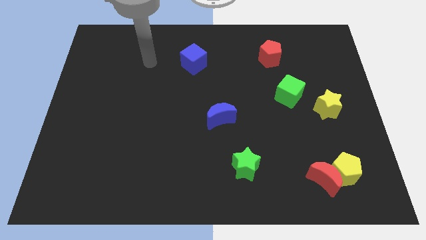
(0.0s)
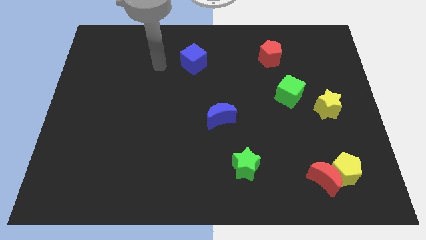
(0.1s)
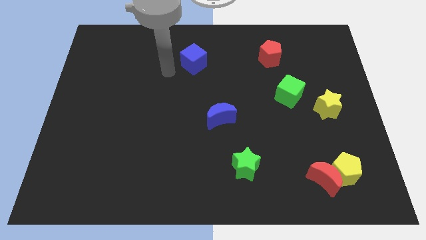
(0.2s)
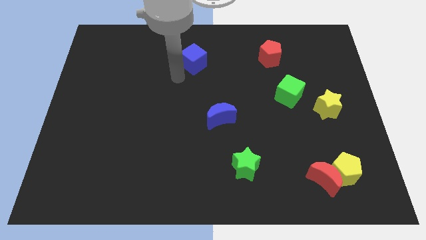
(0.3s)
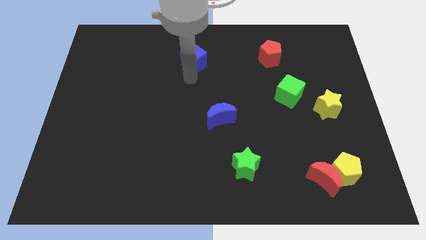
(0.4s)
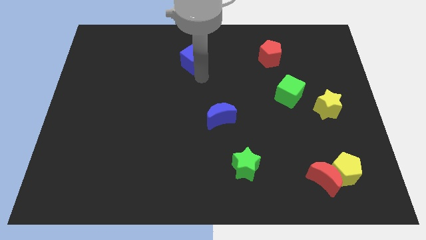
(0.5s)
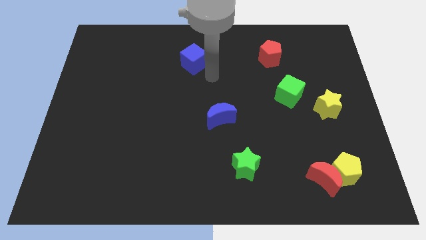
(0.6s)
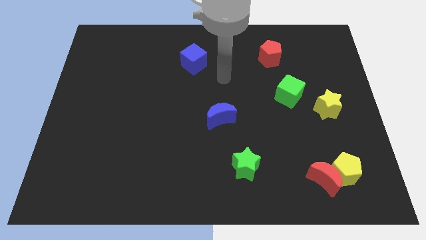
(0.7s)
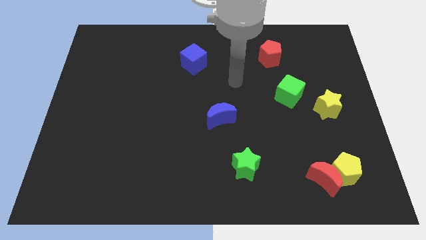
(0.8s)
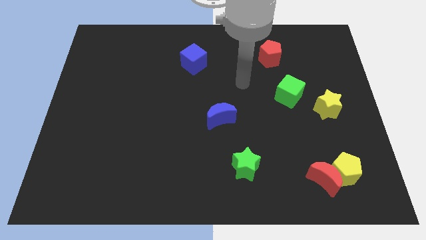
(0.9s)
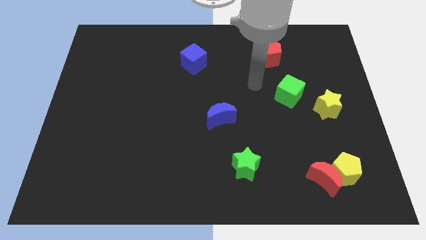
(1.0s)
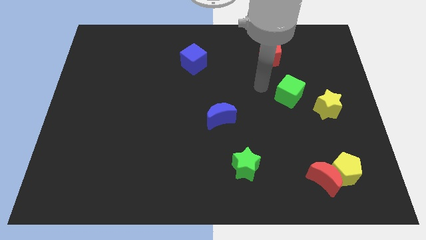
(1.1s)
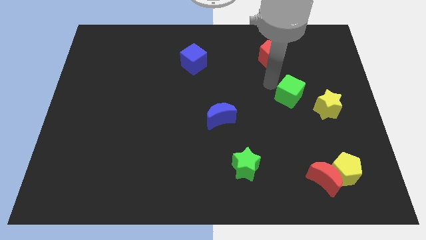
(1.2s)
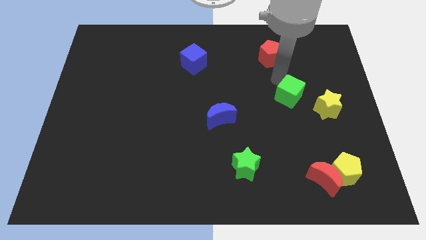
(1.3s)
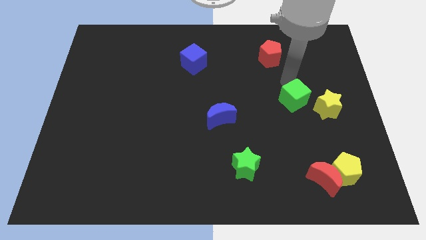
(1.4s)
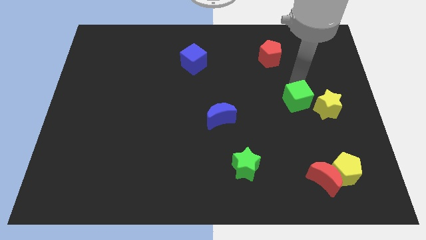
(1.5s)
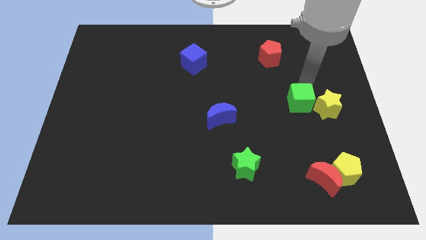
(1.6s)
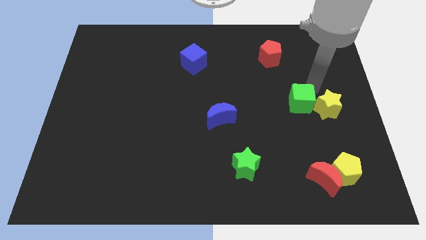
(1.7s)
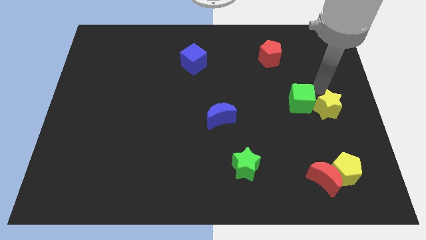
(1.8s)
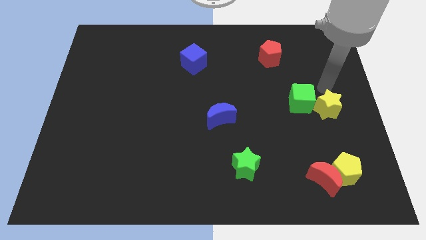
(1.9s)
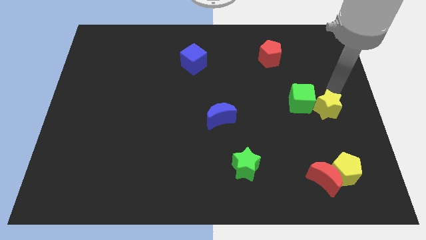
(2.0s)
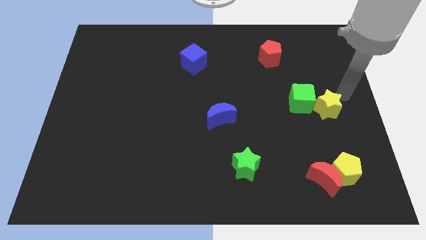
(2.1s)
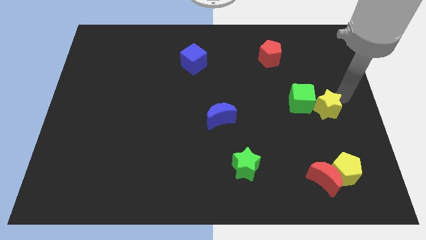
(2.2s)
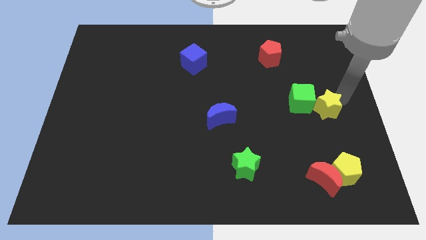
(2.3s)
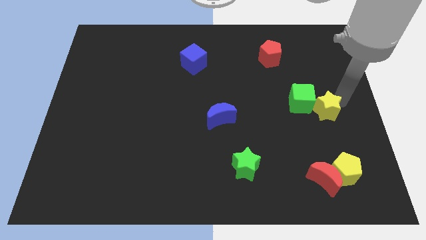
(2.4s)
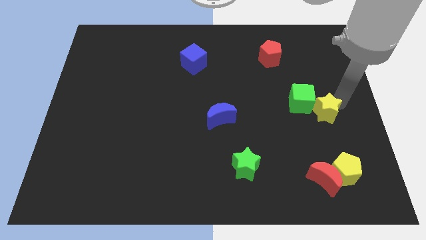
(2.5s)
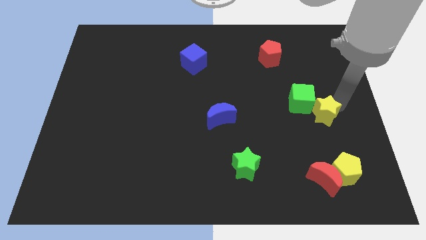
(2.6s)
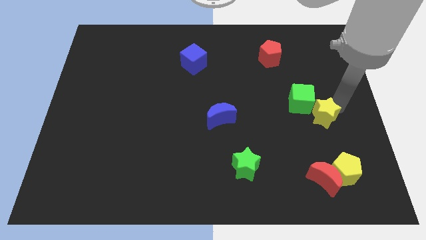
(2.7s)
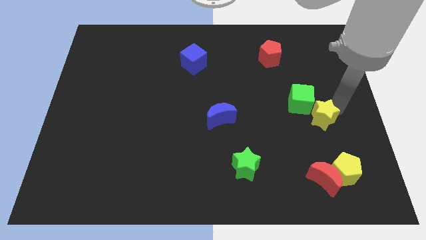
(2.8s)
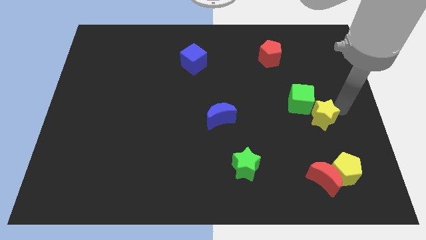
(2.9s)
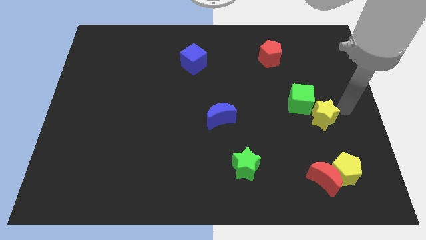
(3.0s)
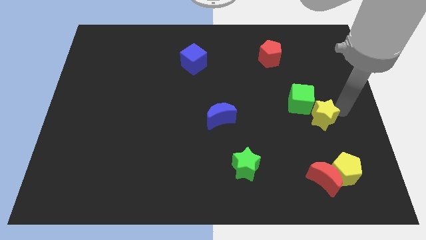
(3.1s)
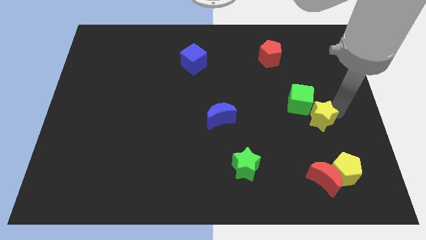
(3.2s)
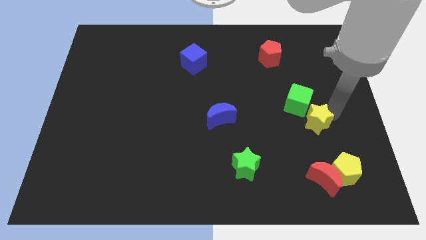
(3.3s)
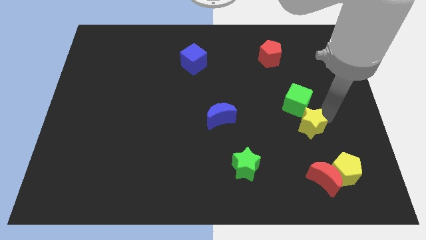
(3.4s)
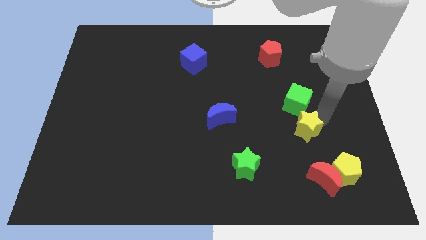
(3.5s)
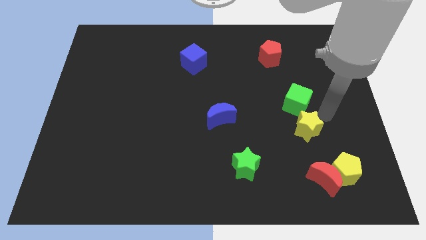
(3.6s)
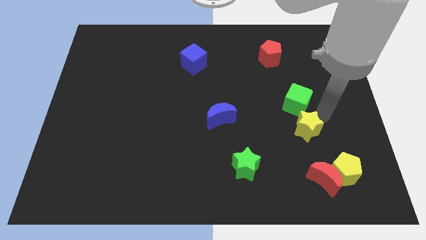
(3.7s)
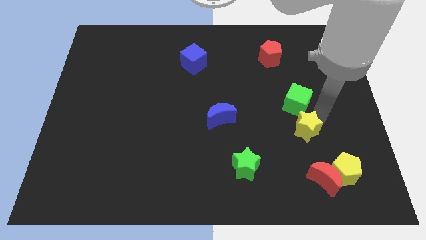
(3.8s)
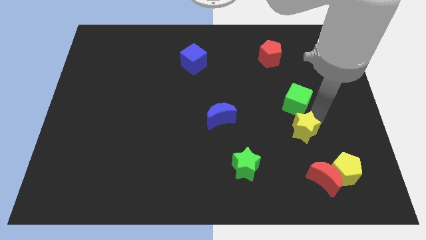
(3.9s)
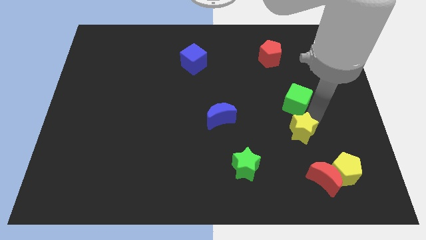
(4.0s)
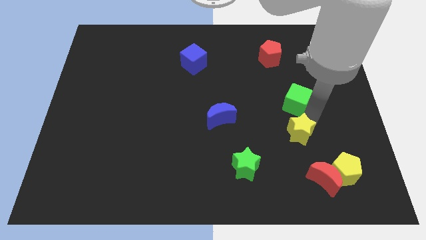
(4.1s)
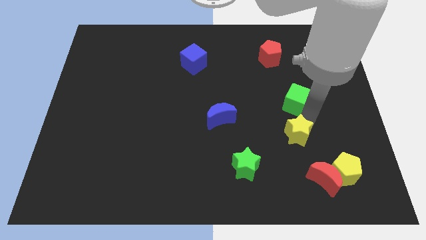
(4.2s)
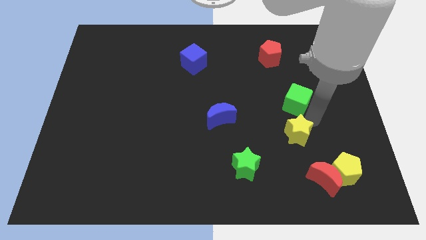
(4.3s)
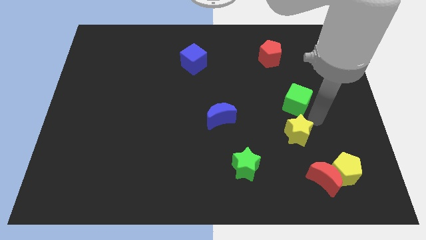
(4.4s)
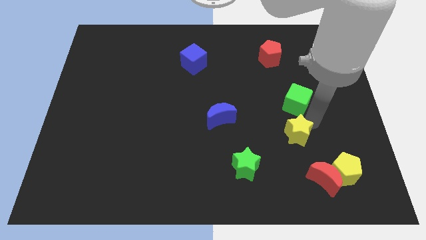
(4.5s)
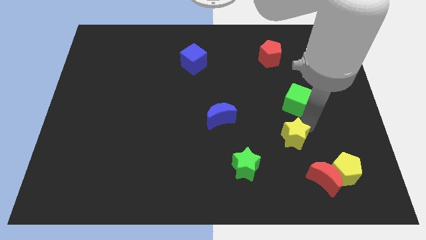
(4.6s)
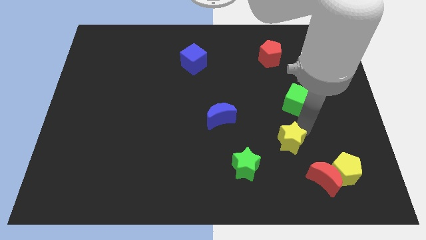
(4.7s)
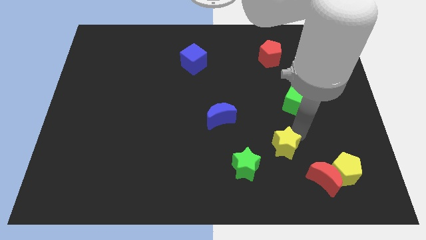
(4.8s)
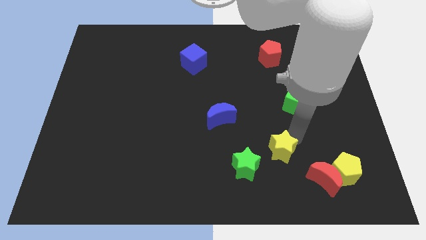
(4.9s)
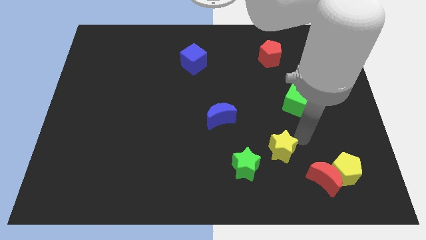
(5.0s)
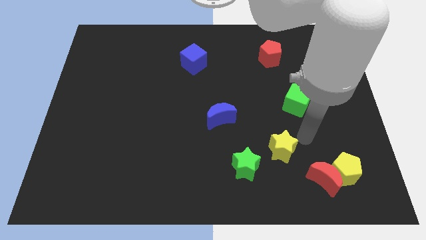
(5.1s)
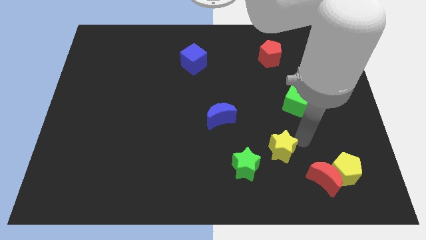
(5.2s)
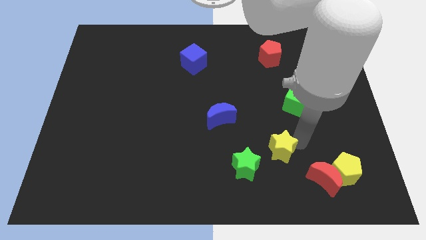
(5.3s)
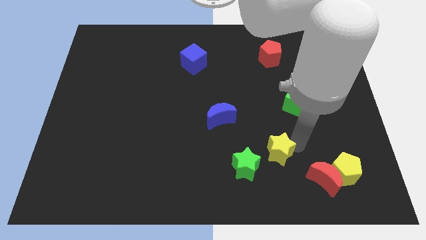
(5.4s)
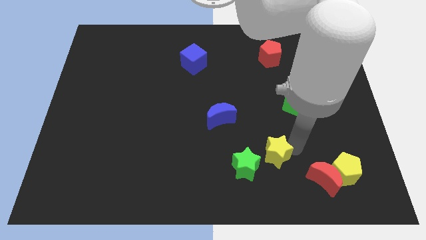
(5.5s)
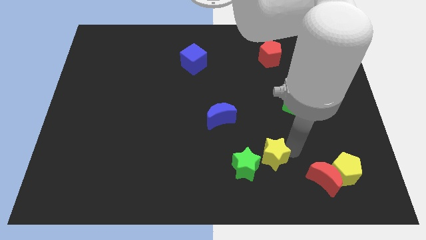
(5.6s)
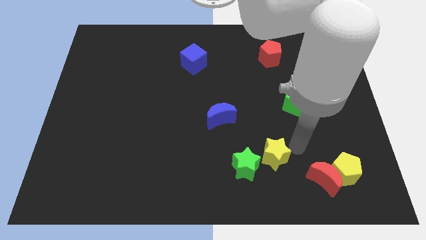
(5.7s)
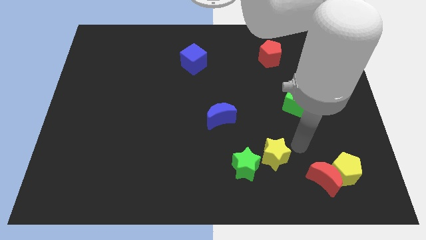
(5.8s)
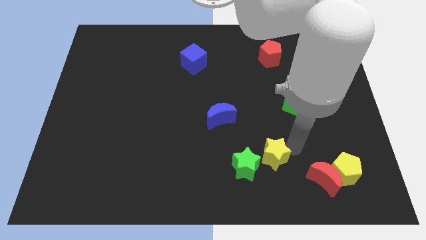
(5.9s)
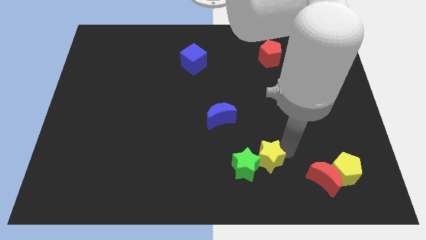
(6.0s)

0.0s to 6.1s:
put the yellow star next to the green star
